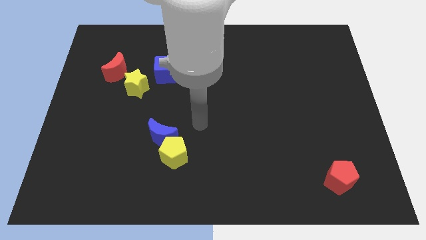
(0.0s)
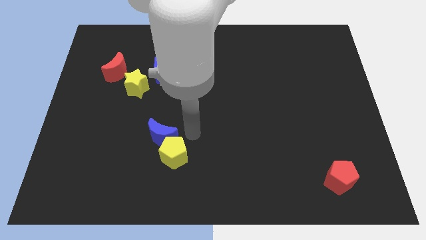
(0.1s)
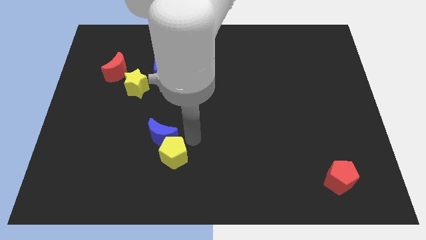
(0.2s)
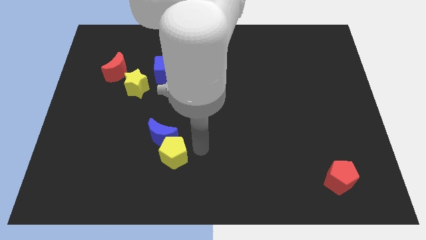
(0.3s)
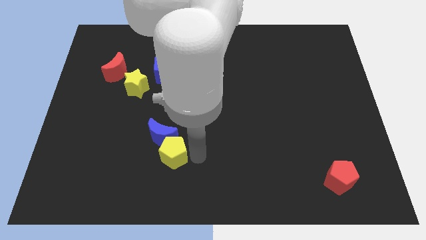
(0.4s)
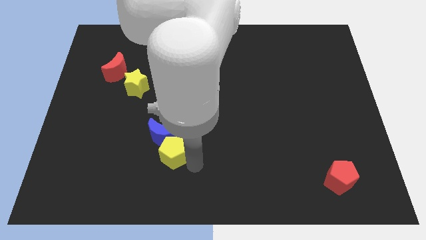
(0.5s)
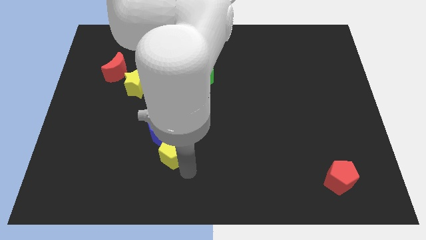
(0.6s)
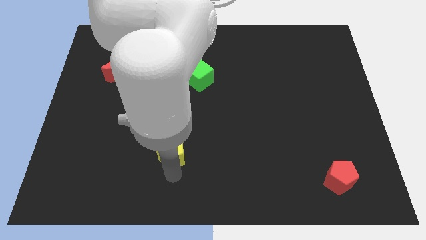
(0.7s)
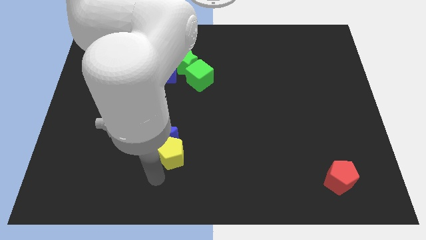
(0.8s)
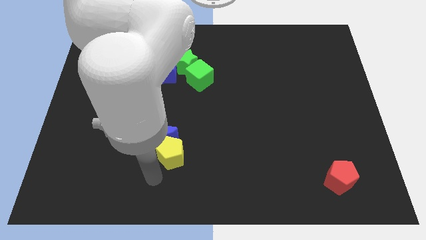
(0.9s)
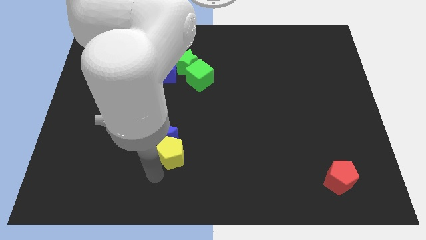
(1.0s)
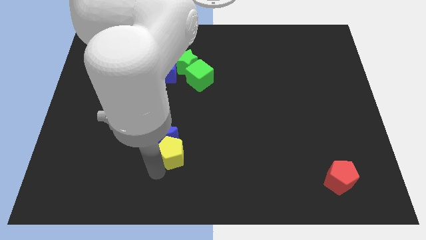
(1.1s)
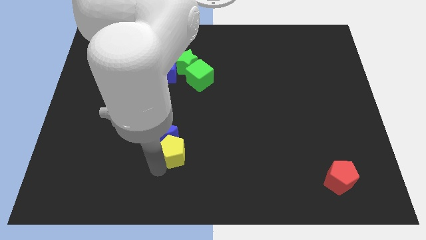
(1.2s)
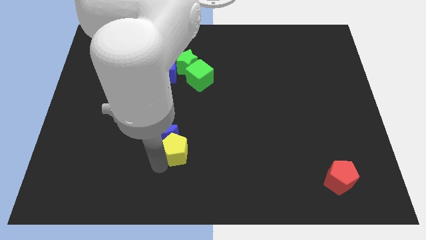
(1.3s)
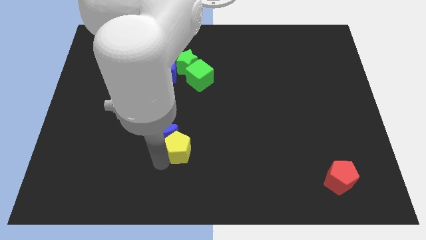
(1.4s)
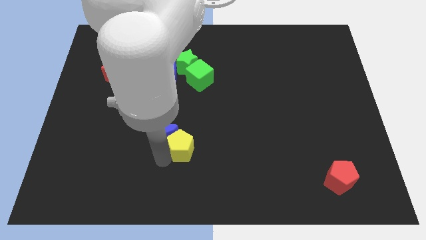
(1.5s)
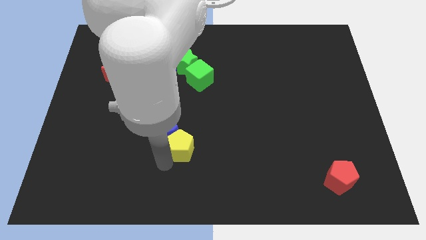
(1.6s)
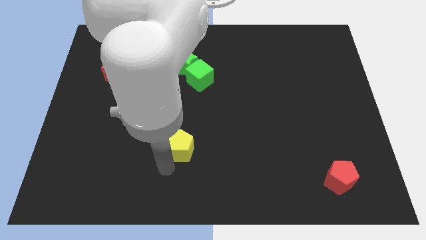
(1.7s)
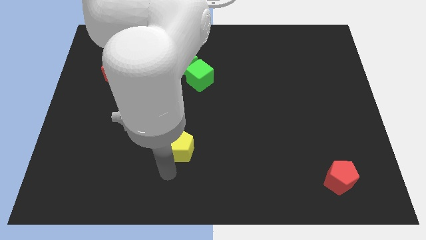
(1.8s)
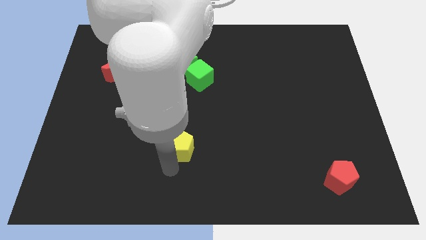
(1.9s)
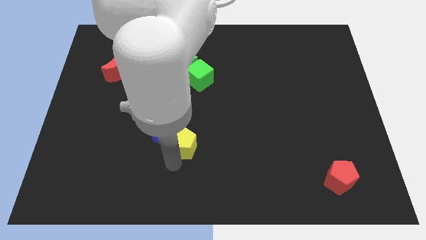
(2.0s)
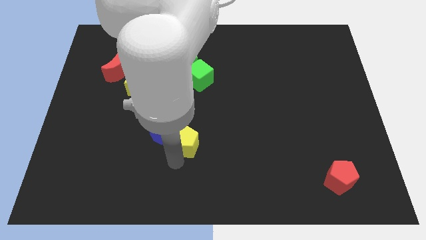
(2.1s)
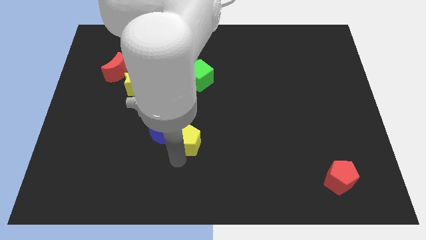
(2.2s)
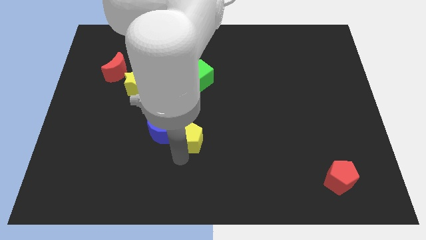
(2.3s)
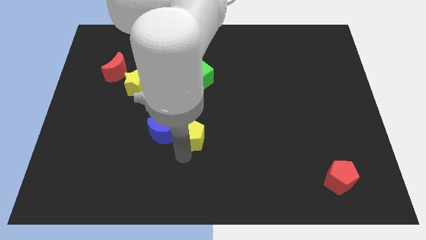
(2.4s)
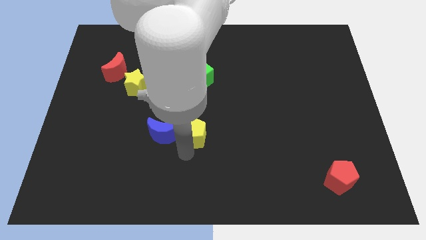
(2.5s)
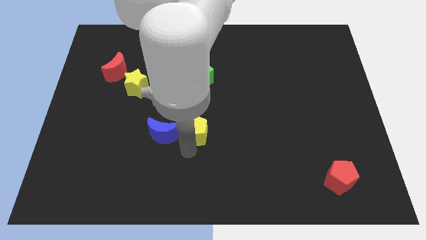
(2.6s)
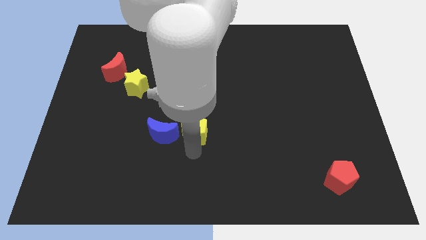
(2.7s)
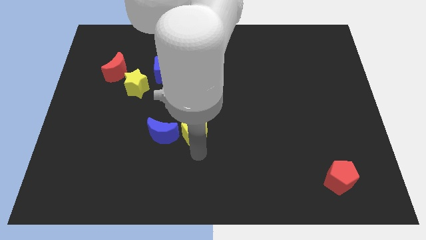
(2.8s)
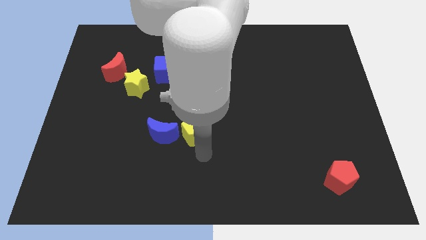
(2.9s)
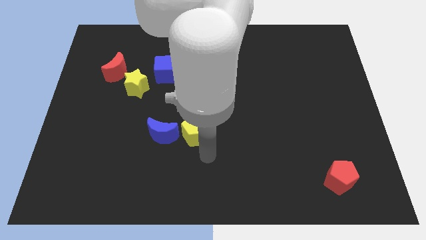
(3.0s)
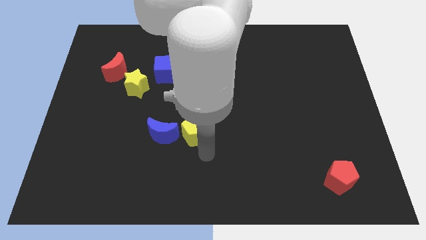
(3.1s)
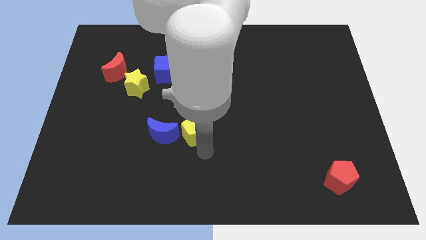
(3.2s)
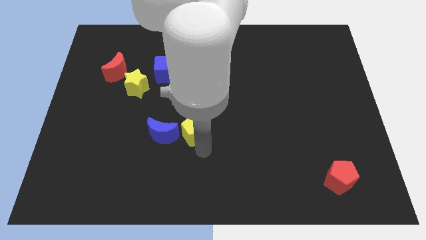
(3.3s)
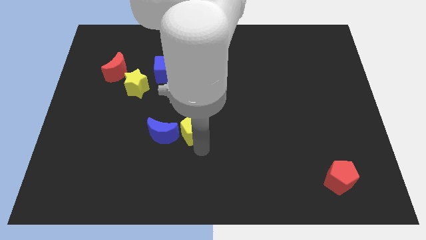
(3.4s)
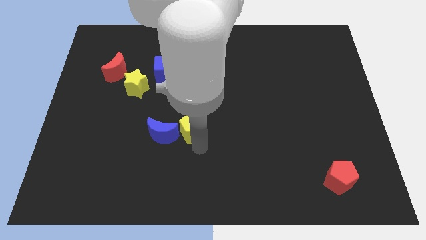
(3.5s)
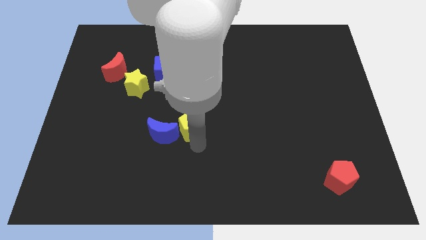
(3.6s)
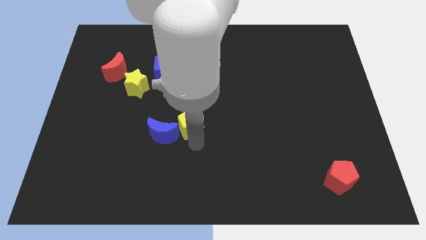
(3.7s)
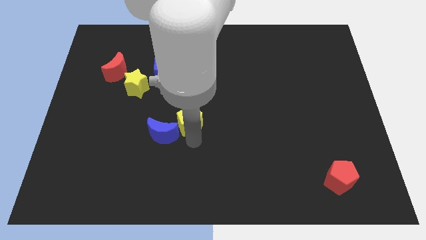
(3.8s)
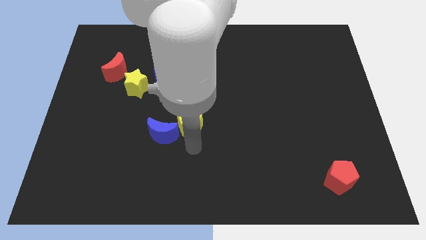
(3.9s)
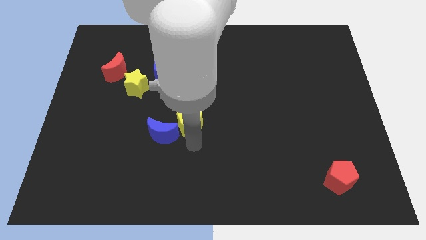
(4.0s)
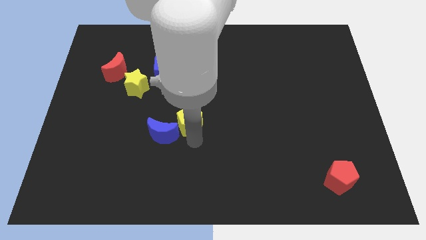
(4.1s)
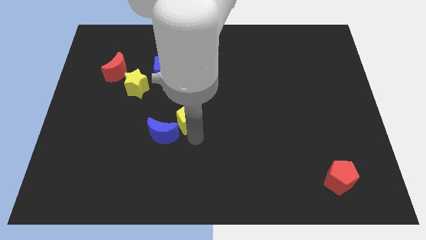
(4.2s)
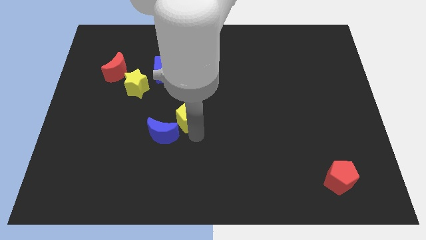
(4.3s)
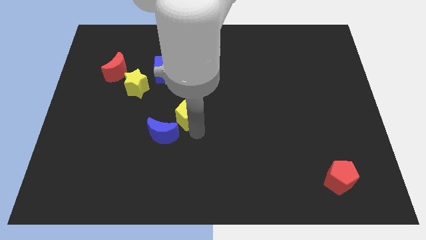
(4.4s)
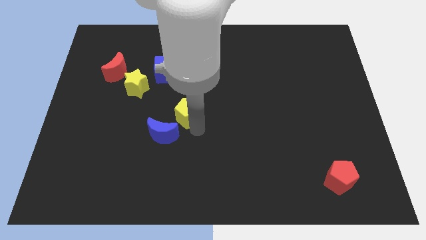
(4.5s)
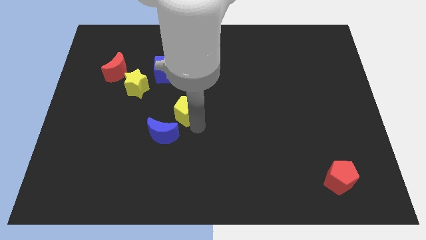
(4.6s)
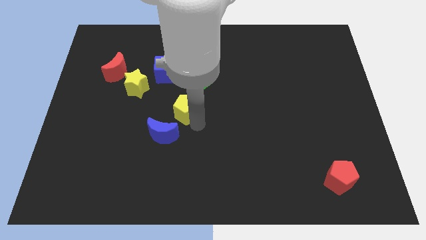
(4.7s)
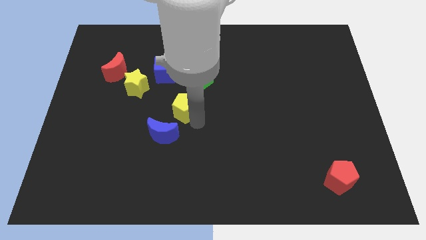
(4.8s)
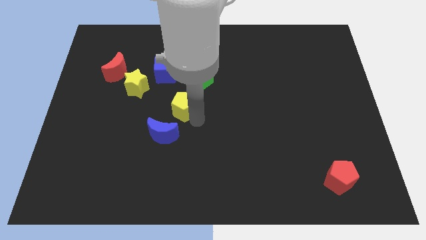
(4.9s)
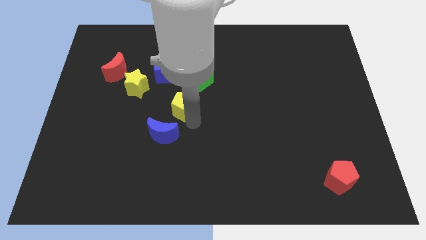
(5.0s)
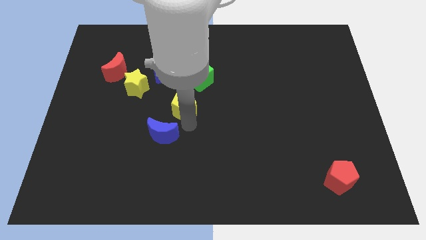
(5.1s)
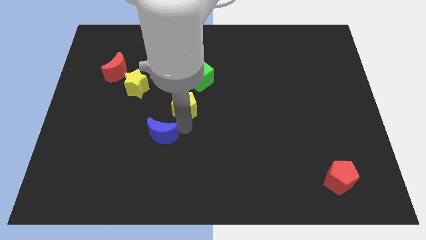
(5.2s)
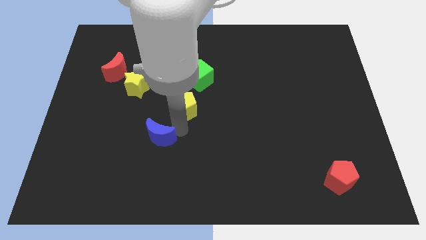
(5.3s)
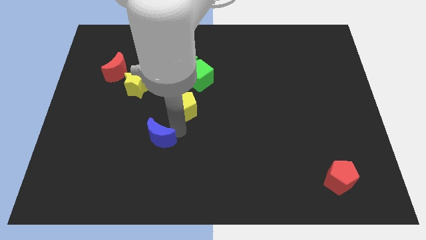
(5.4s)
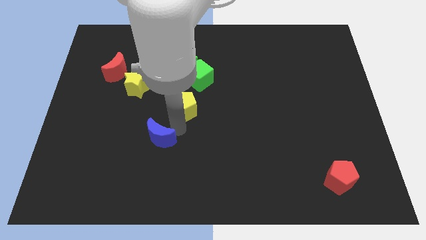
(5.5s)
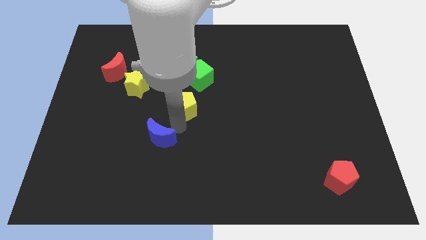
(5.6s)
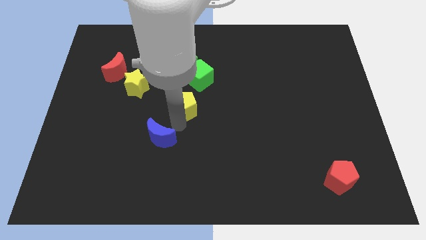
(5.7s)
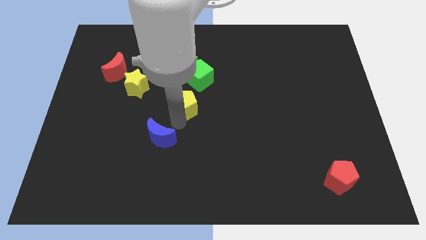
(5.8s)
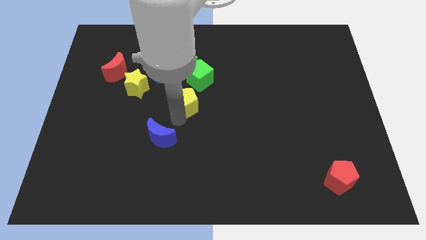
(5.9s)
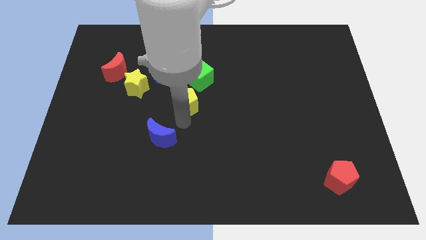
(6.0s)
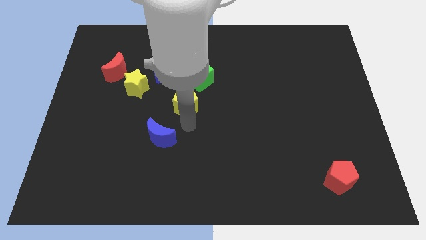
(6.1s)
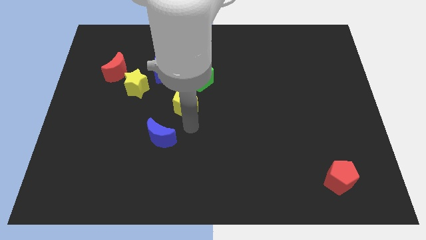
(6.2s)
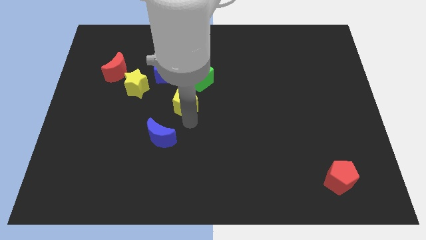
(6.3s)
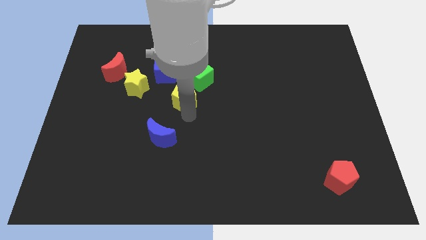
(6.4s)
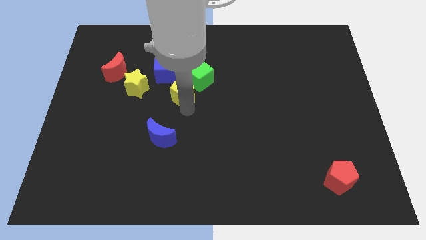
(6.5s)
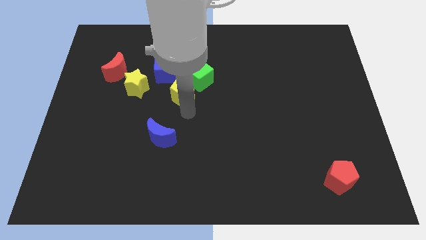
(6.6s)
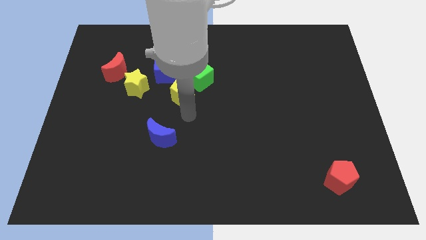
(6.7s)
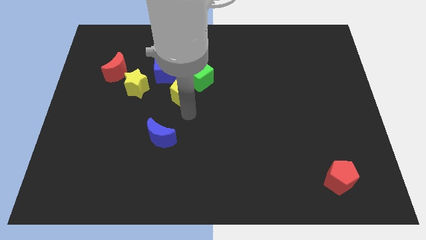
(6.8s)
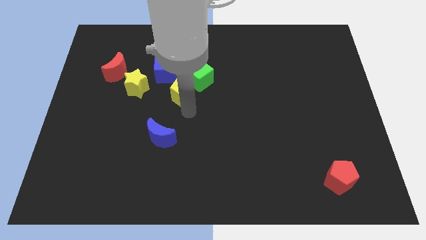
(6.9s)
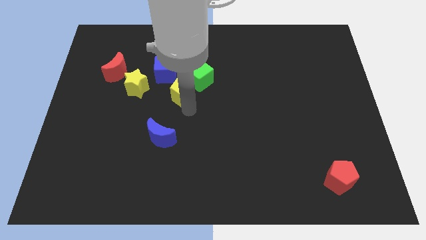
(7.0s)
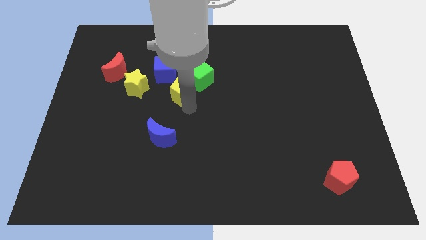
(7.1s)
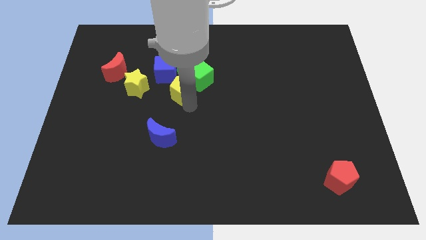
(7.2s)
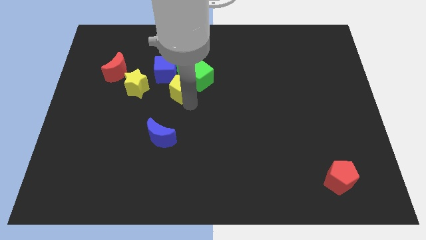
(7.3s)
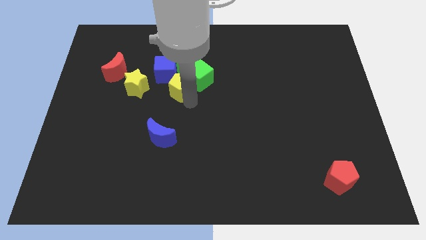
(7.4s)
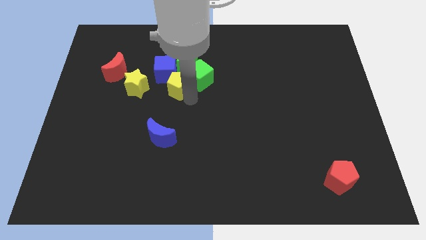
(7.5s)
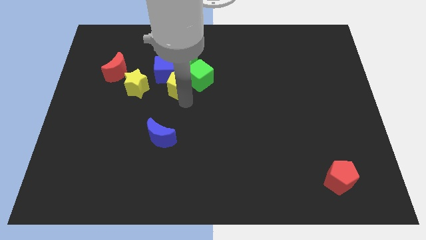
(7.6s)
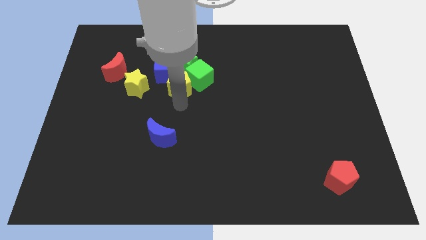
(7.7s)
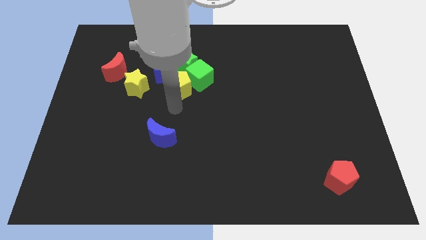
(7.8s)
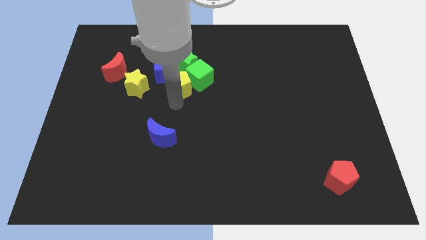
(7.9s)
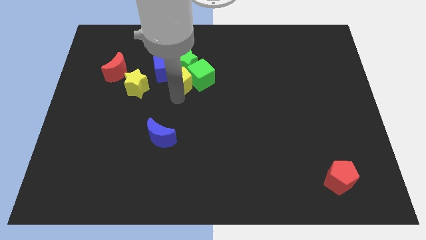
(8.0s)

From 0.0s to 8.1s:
slide the yellow pentagon towards the green star
